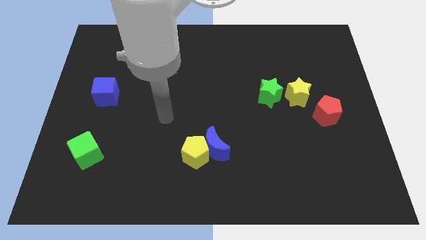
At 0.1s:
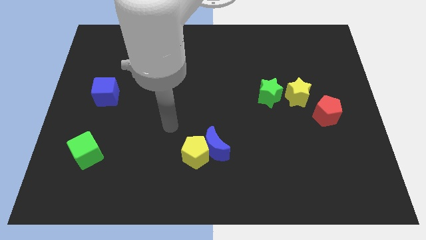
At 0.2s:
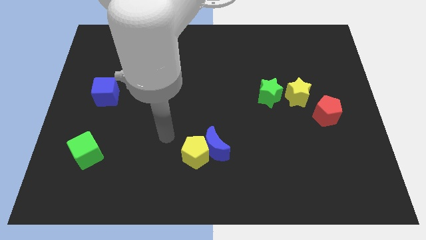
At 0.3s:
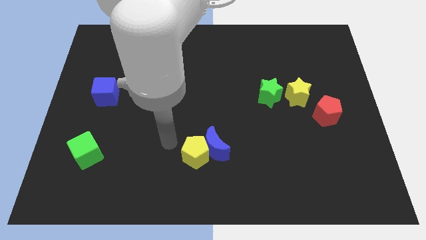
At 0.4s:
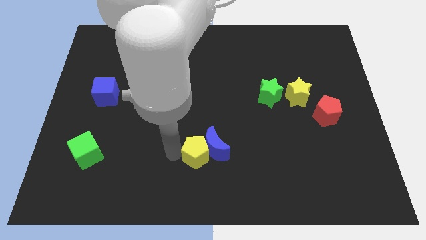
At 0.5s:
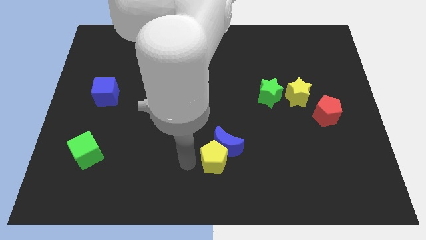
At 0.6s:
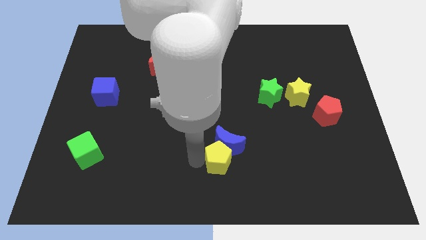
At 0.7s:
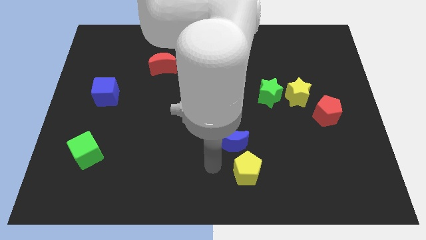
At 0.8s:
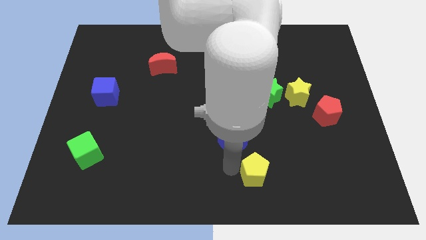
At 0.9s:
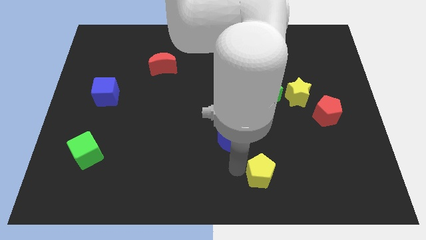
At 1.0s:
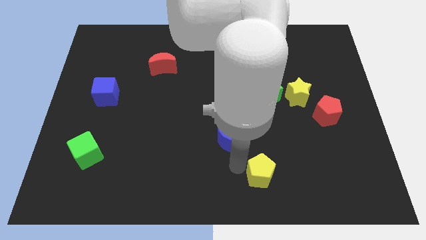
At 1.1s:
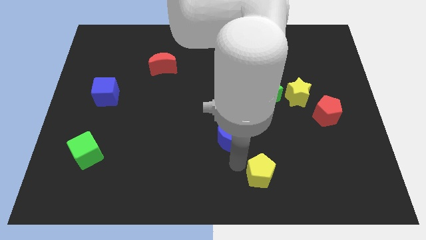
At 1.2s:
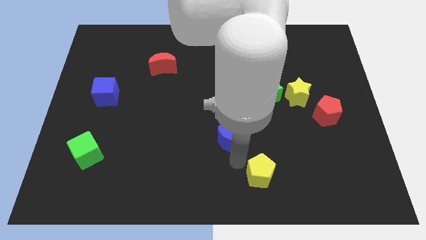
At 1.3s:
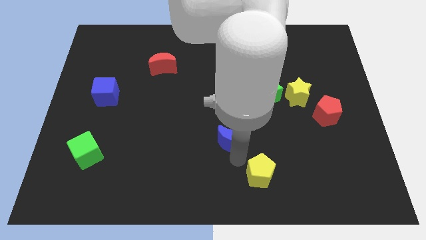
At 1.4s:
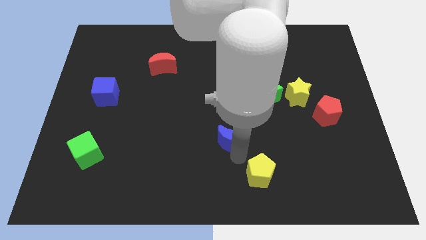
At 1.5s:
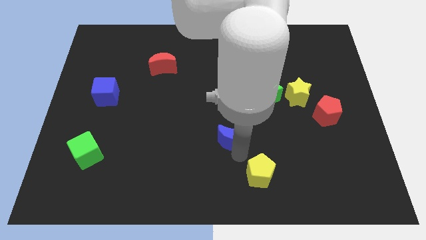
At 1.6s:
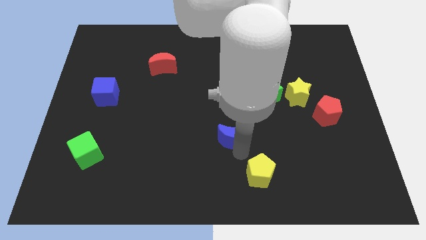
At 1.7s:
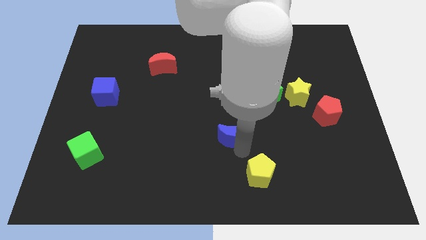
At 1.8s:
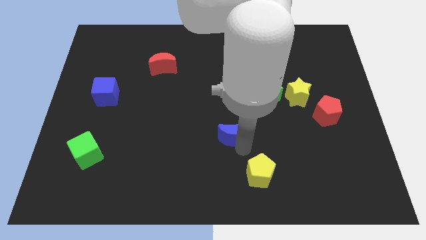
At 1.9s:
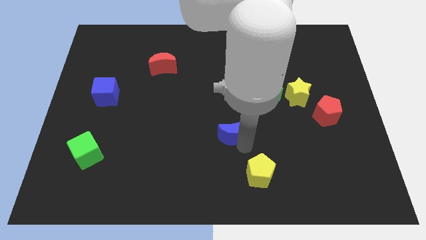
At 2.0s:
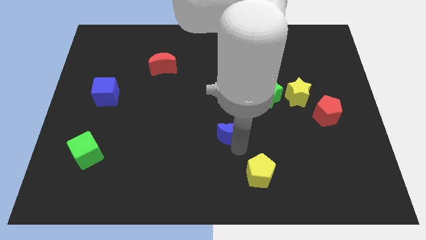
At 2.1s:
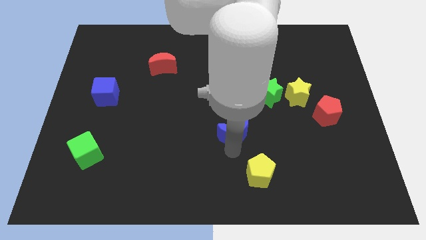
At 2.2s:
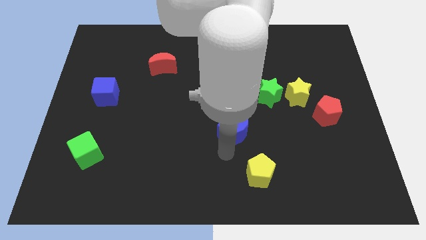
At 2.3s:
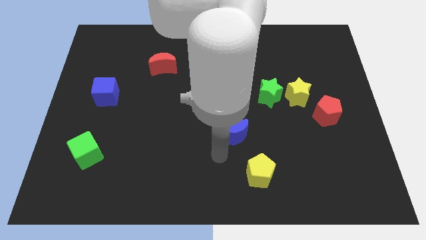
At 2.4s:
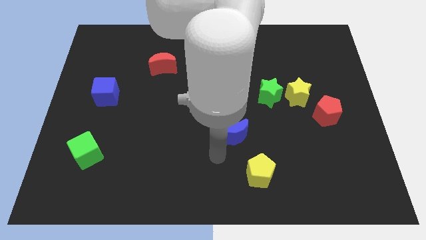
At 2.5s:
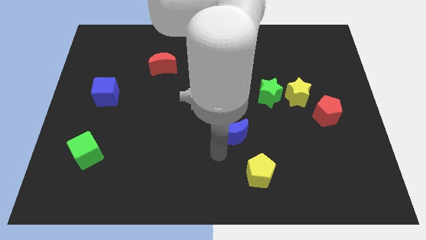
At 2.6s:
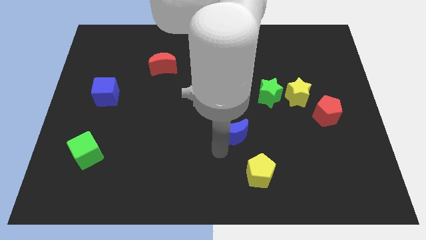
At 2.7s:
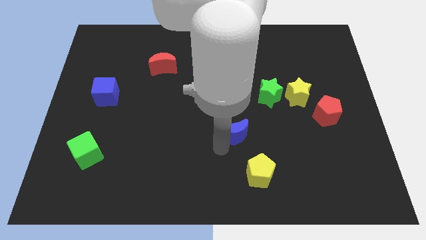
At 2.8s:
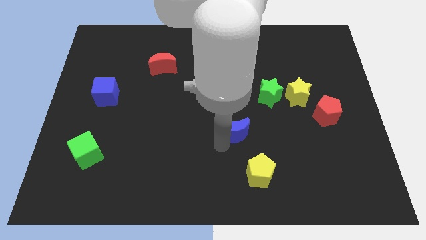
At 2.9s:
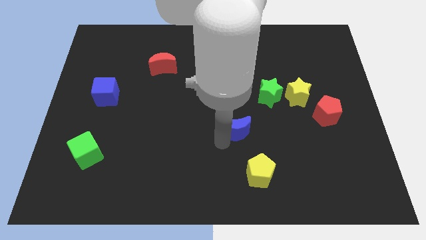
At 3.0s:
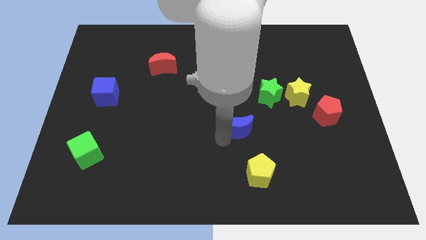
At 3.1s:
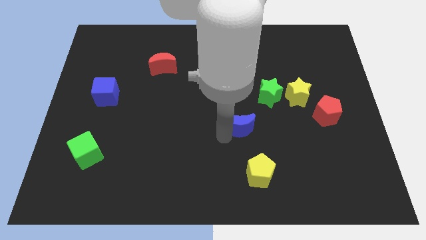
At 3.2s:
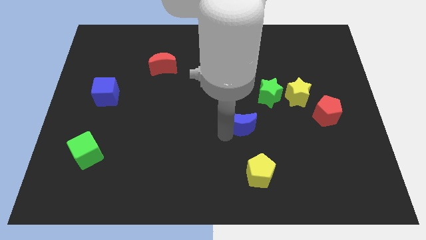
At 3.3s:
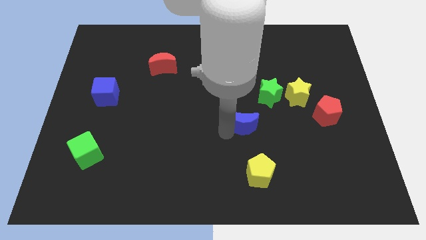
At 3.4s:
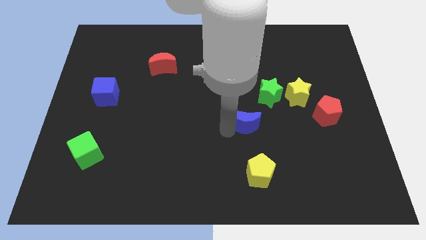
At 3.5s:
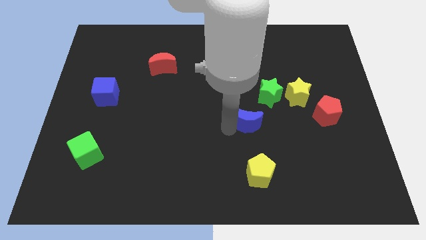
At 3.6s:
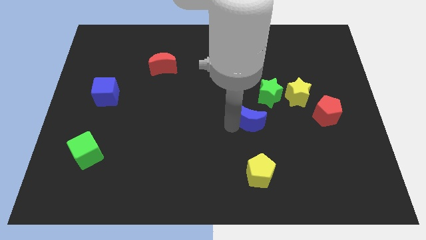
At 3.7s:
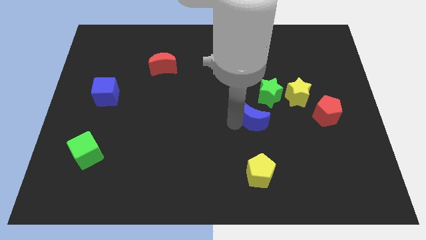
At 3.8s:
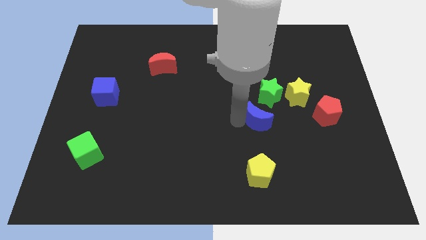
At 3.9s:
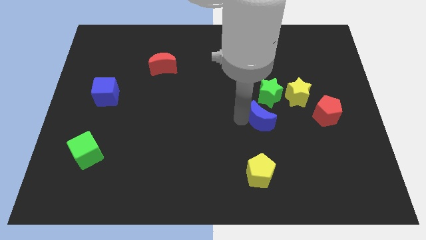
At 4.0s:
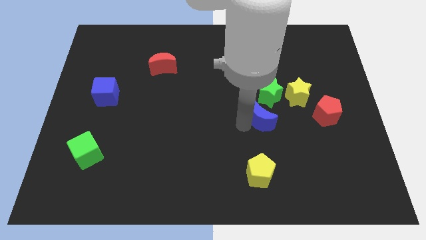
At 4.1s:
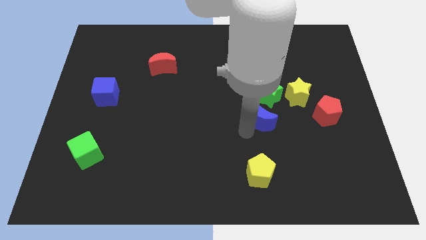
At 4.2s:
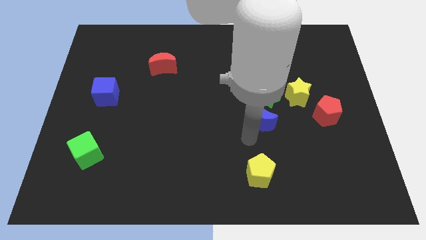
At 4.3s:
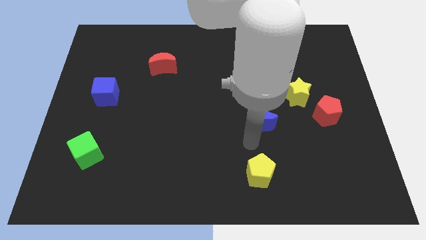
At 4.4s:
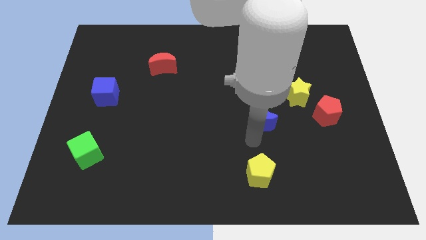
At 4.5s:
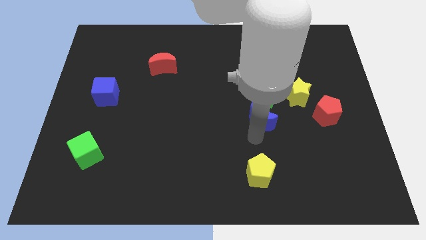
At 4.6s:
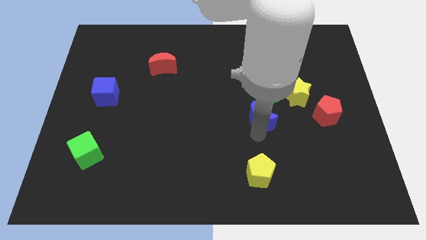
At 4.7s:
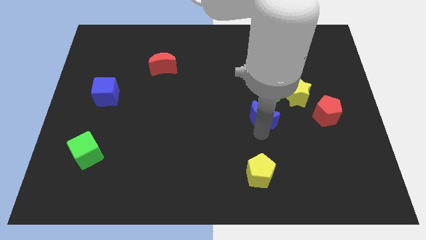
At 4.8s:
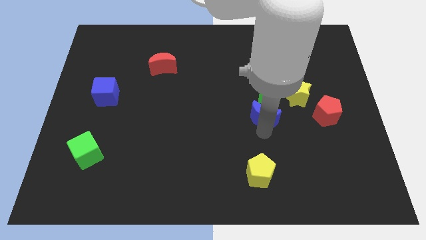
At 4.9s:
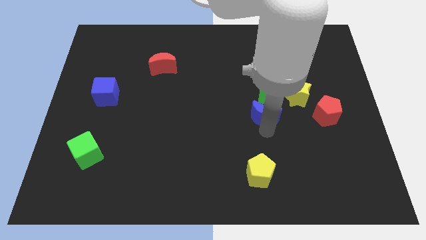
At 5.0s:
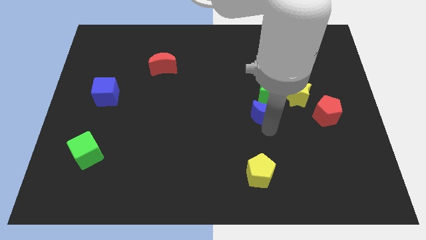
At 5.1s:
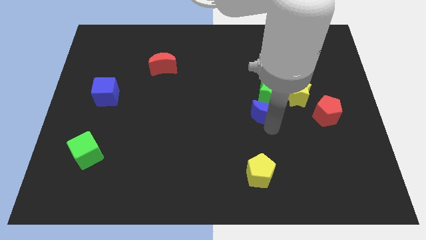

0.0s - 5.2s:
put the blue moon close to the green star

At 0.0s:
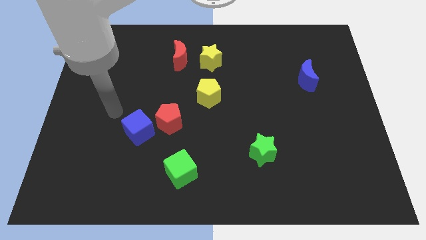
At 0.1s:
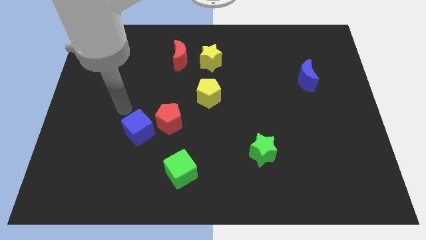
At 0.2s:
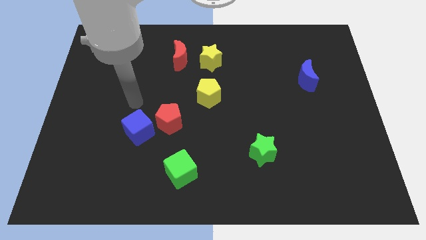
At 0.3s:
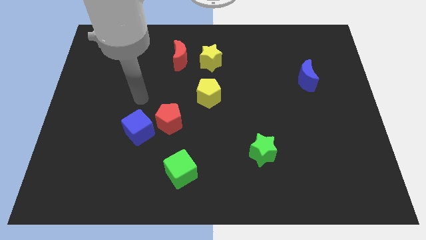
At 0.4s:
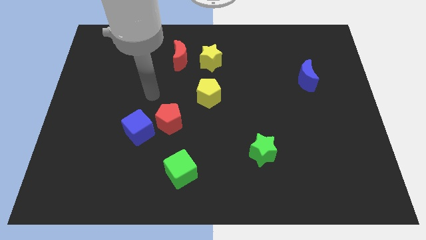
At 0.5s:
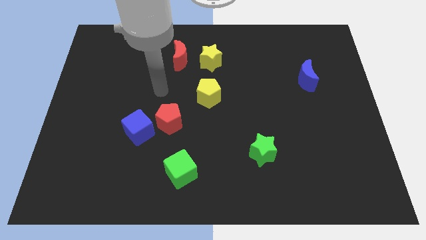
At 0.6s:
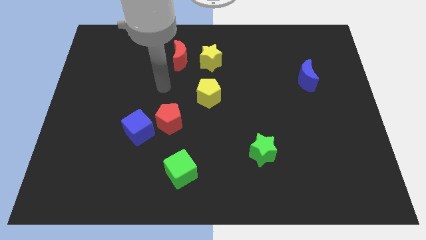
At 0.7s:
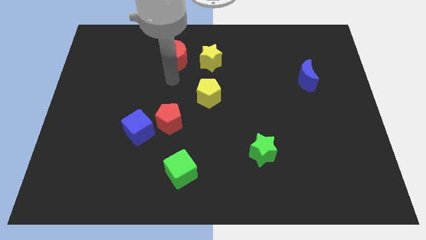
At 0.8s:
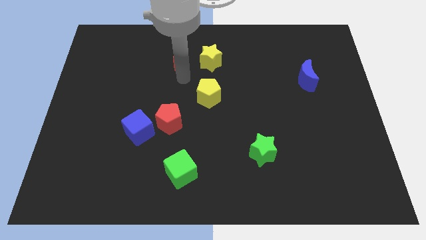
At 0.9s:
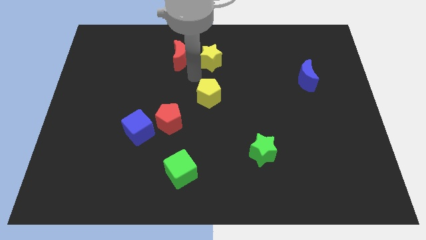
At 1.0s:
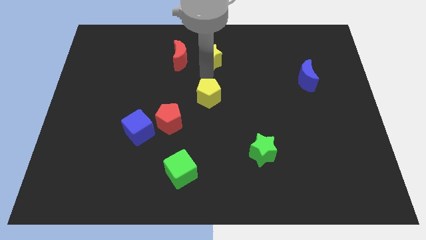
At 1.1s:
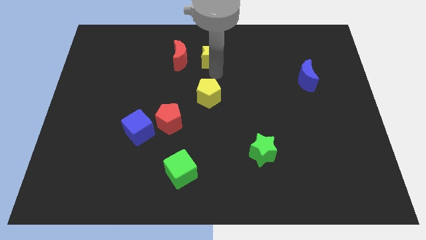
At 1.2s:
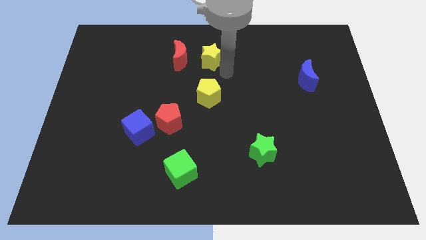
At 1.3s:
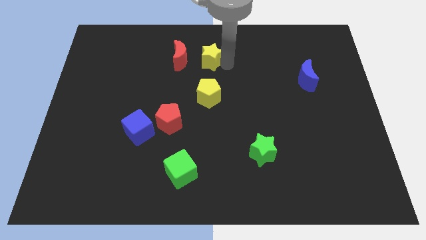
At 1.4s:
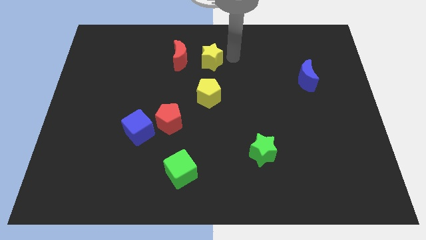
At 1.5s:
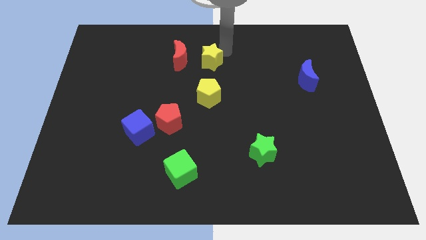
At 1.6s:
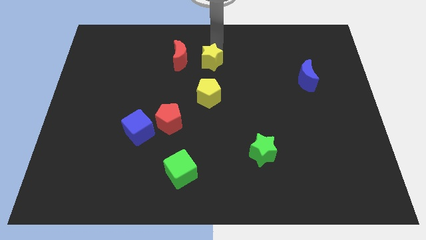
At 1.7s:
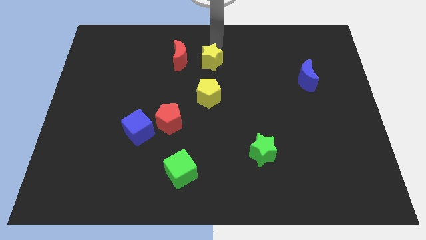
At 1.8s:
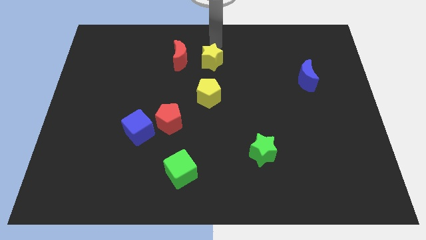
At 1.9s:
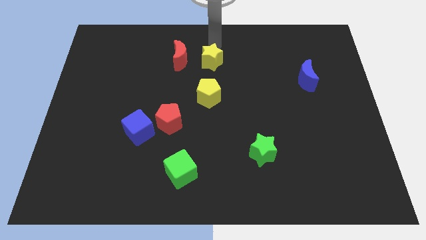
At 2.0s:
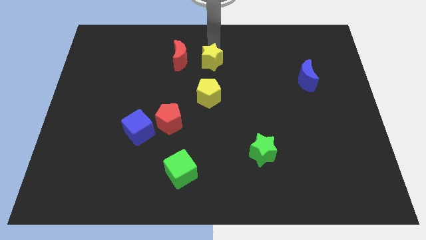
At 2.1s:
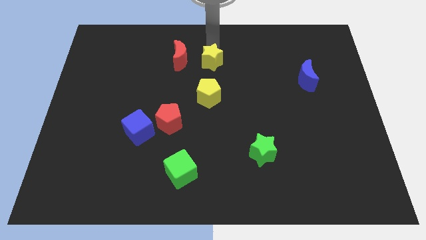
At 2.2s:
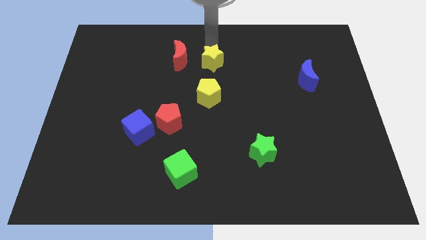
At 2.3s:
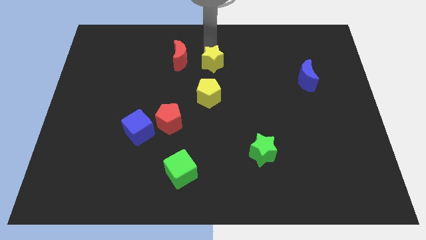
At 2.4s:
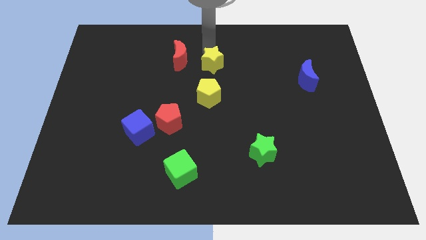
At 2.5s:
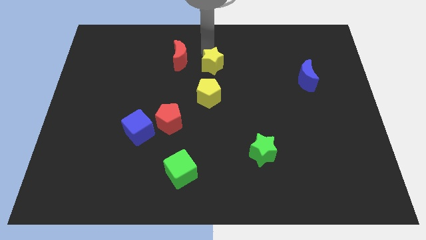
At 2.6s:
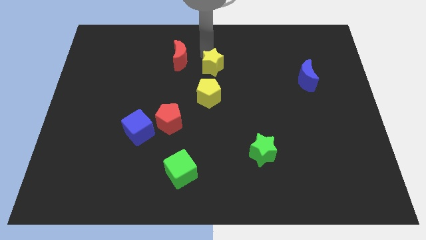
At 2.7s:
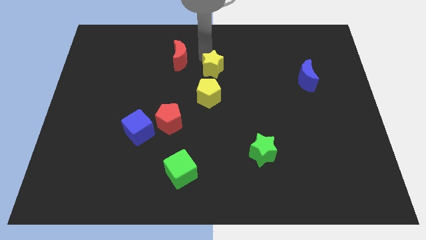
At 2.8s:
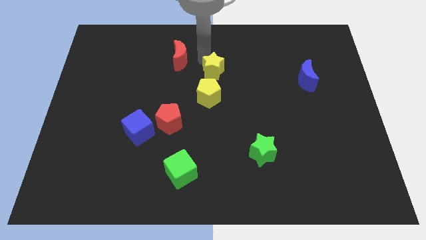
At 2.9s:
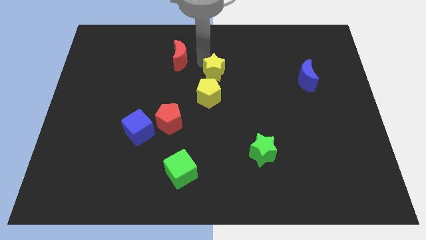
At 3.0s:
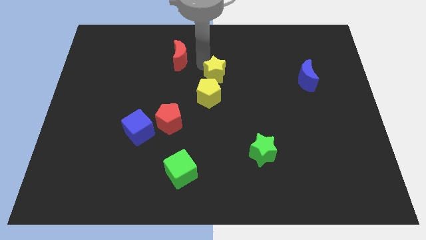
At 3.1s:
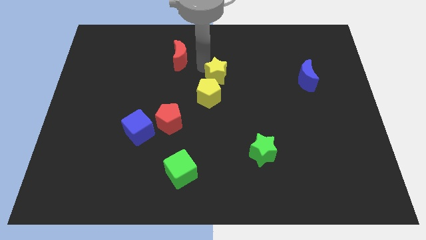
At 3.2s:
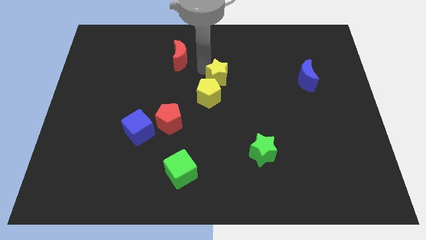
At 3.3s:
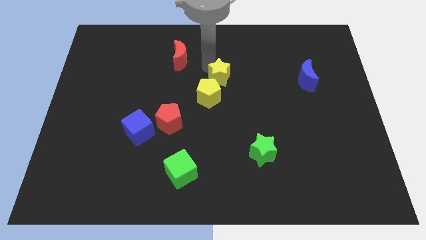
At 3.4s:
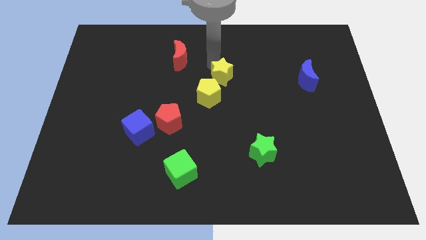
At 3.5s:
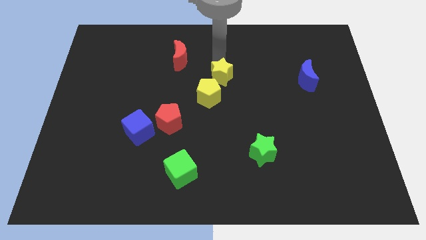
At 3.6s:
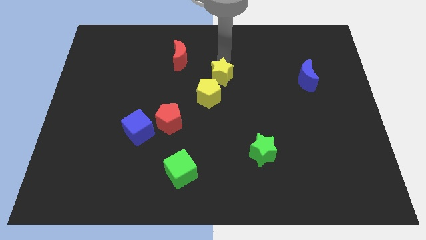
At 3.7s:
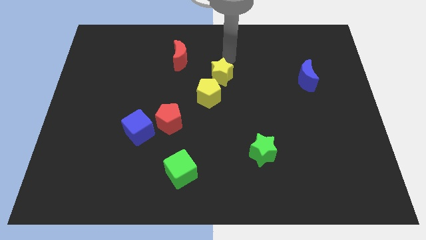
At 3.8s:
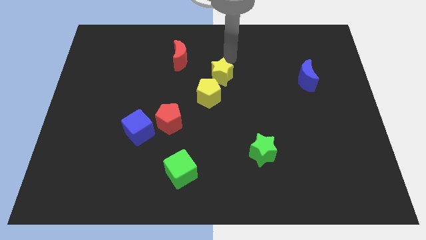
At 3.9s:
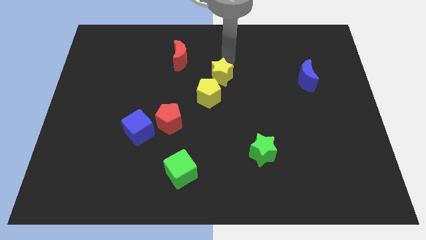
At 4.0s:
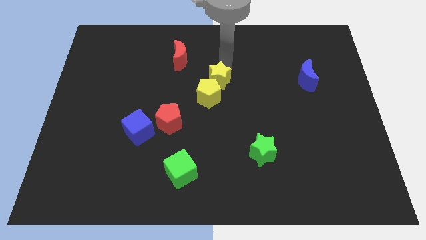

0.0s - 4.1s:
put the yellow star to the yellow pentagon
